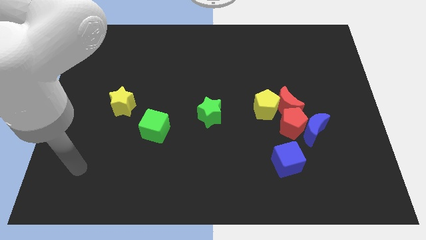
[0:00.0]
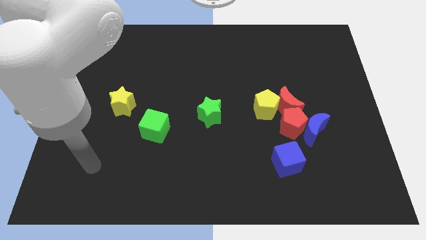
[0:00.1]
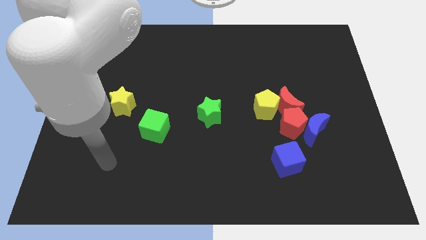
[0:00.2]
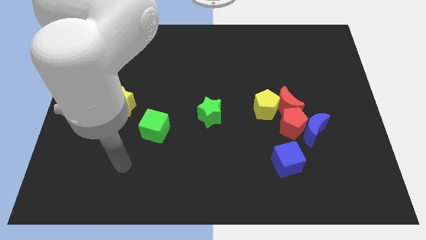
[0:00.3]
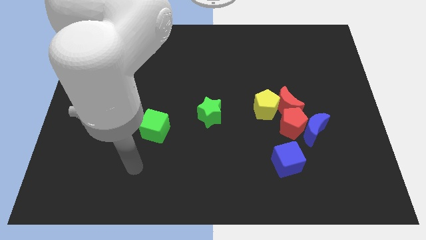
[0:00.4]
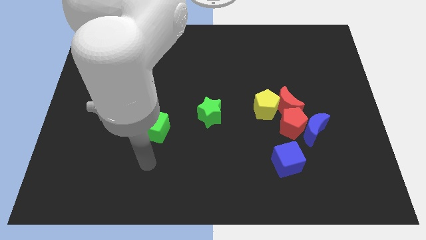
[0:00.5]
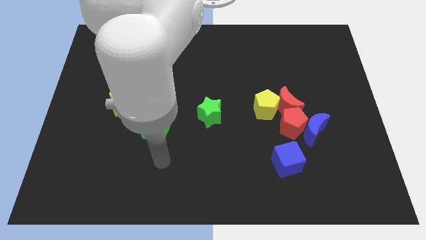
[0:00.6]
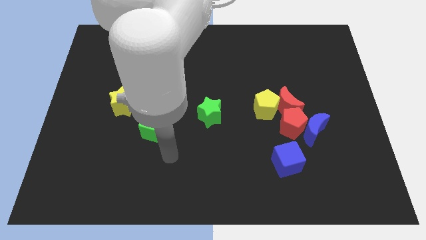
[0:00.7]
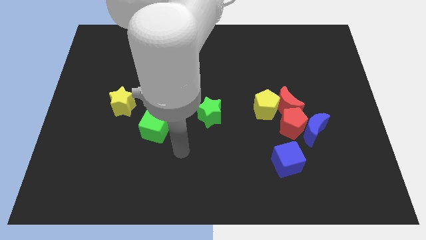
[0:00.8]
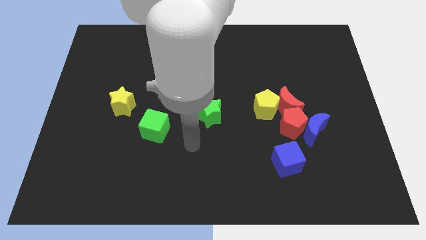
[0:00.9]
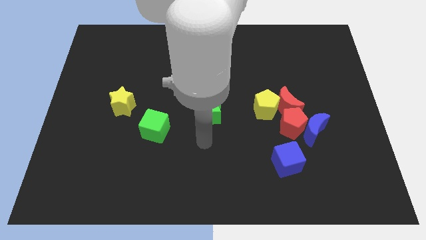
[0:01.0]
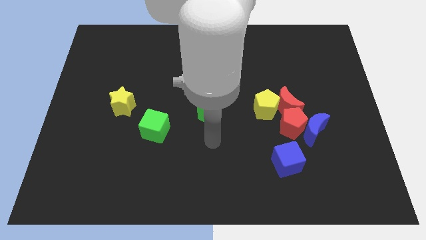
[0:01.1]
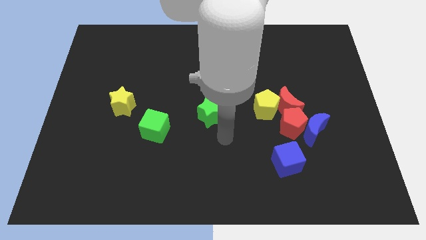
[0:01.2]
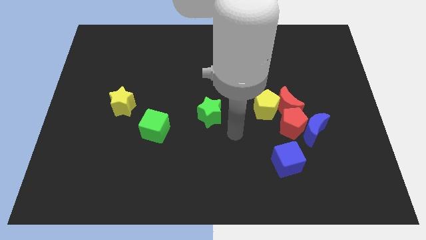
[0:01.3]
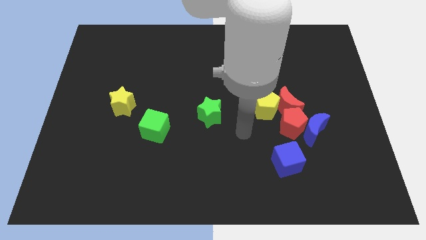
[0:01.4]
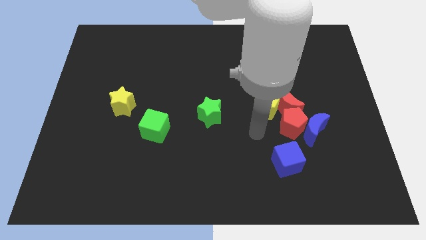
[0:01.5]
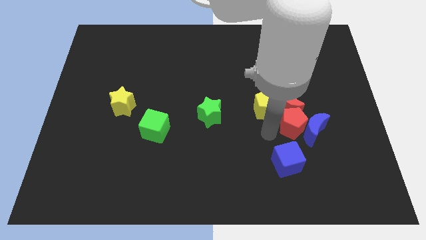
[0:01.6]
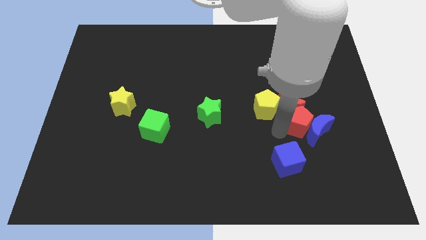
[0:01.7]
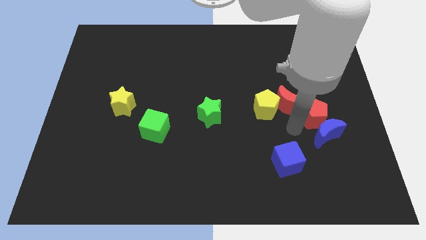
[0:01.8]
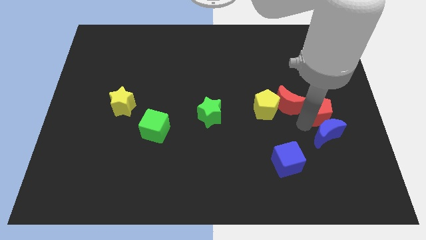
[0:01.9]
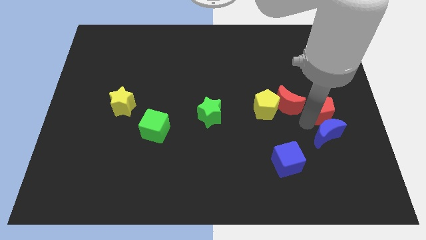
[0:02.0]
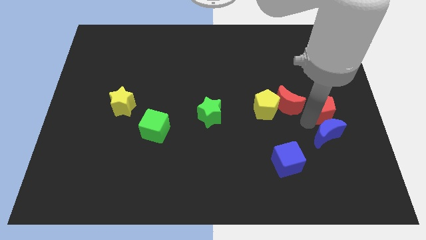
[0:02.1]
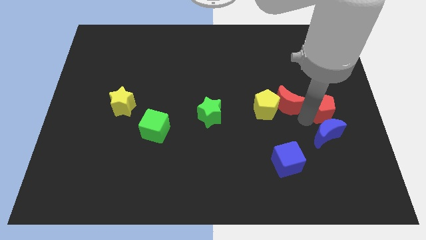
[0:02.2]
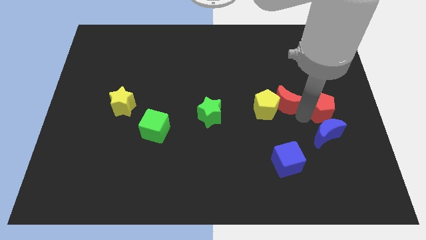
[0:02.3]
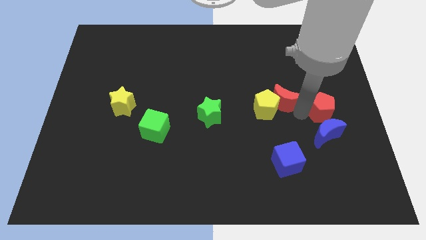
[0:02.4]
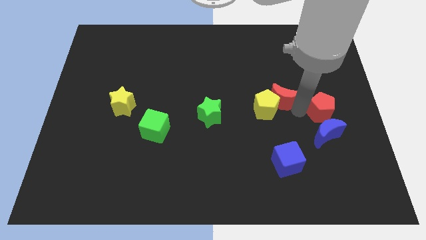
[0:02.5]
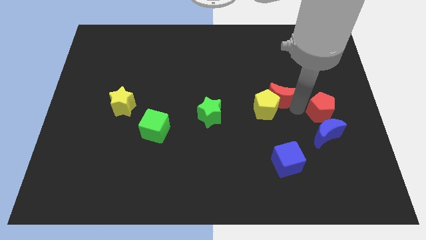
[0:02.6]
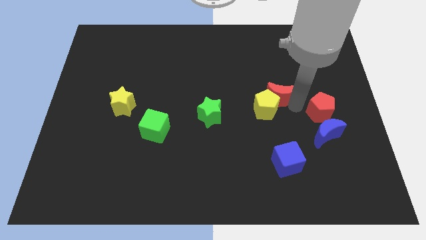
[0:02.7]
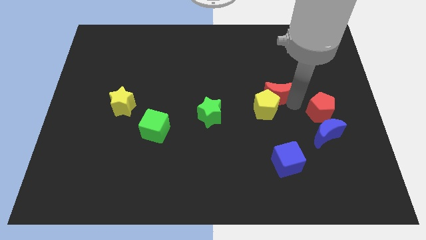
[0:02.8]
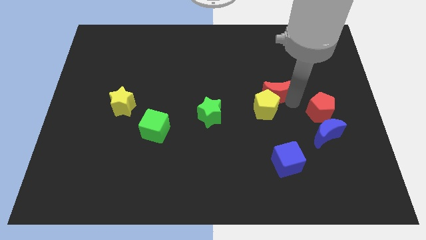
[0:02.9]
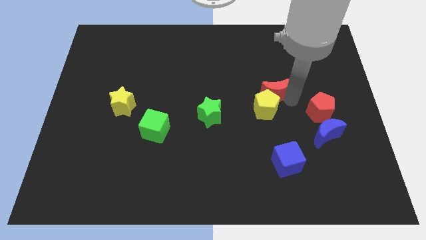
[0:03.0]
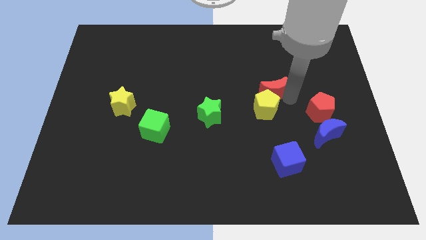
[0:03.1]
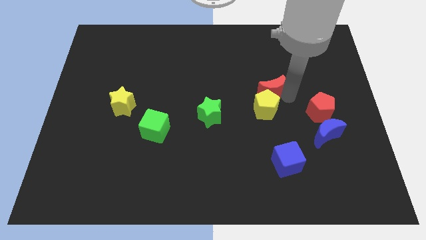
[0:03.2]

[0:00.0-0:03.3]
separate the red moon from the group of blocks

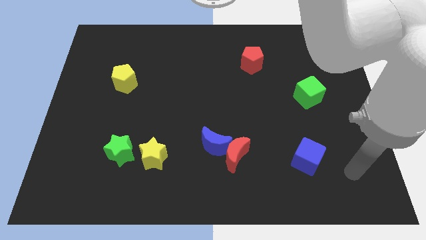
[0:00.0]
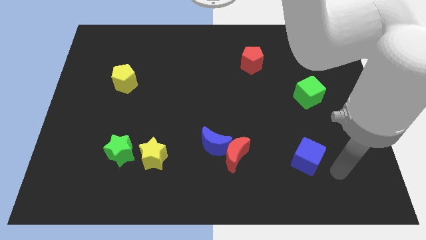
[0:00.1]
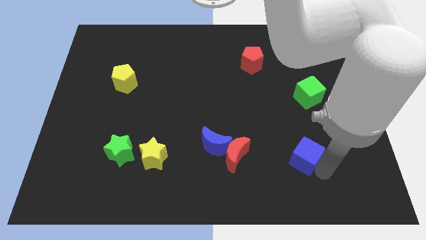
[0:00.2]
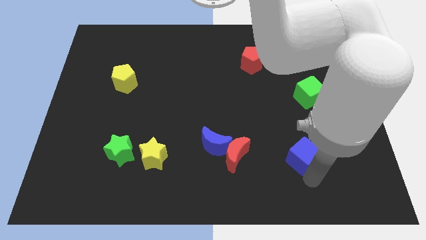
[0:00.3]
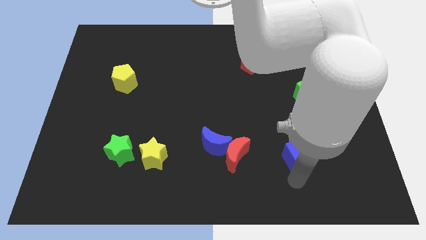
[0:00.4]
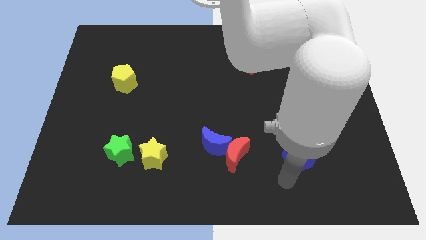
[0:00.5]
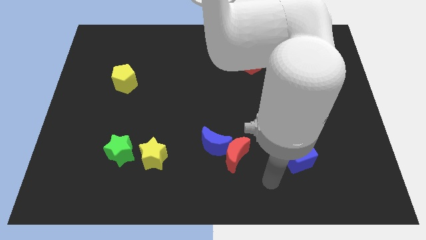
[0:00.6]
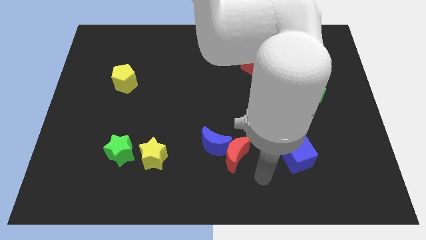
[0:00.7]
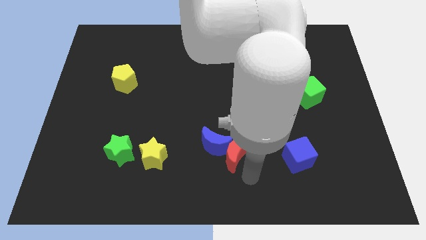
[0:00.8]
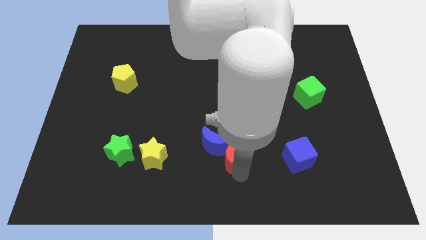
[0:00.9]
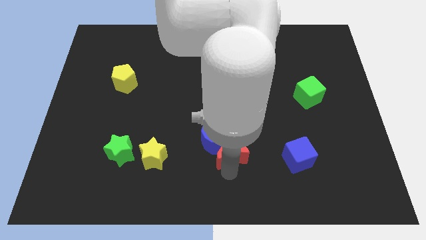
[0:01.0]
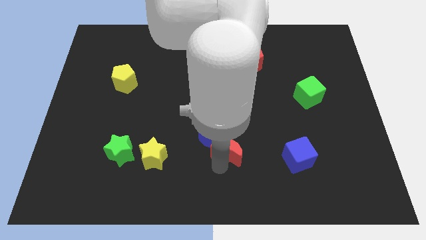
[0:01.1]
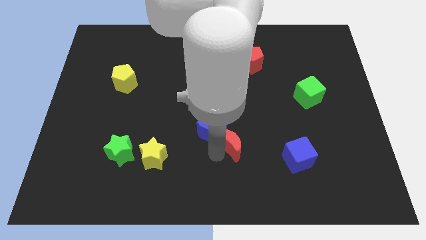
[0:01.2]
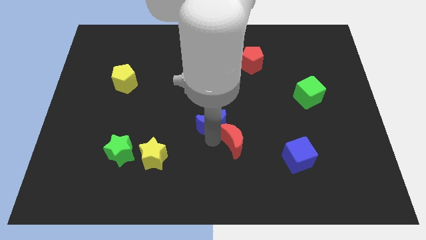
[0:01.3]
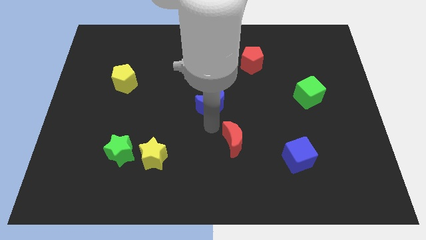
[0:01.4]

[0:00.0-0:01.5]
move the red moon away from the blue moon

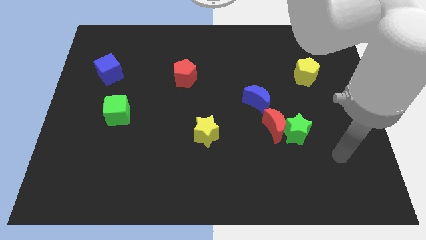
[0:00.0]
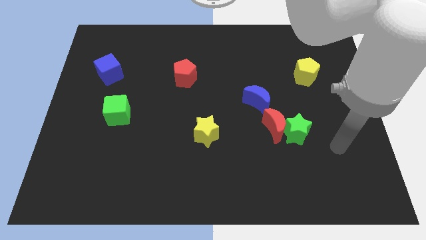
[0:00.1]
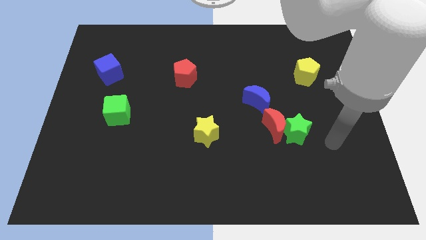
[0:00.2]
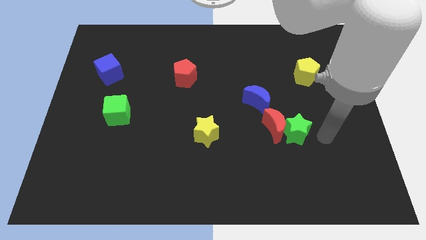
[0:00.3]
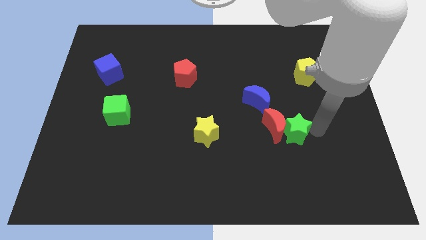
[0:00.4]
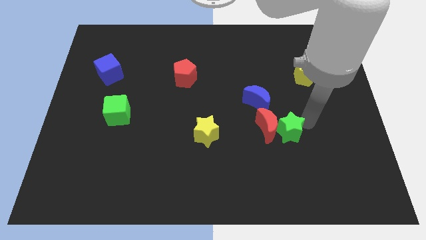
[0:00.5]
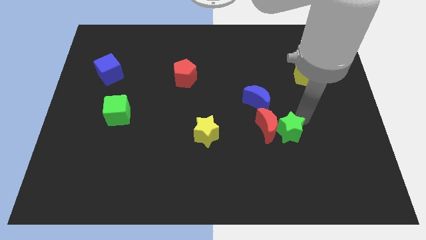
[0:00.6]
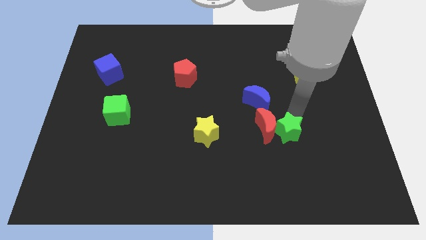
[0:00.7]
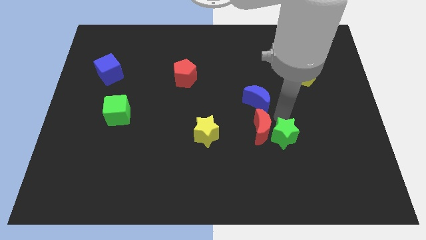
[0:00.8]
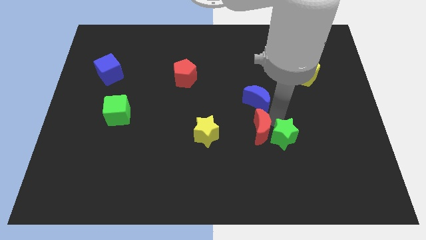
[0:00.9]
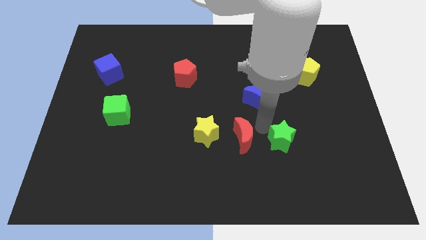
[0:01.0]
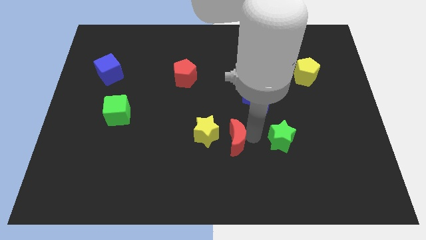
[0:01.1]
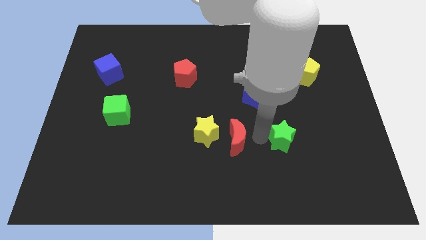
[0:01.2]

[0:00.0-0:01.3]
pull the green star apart from the red moon

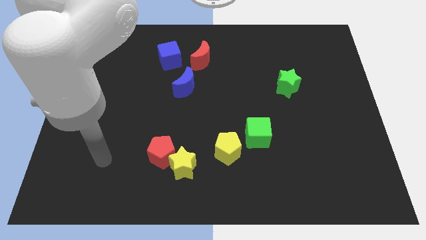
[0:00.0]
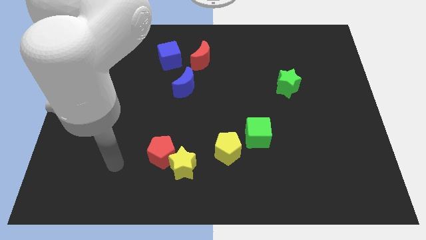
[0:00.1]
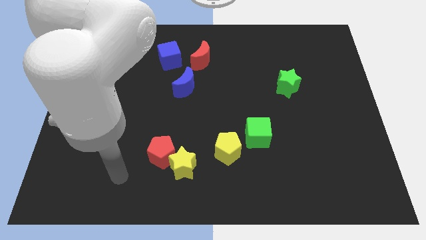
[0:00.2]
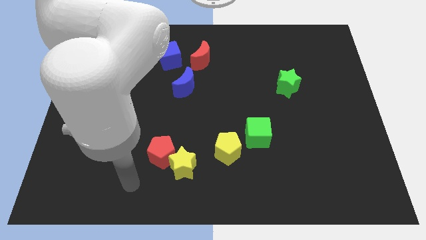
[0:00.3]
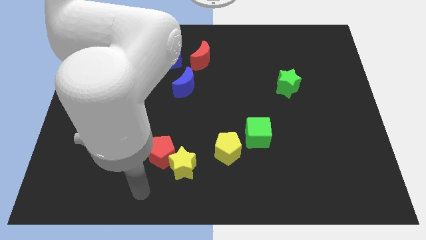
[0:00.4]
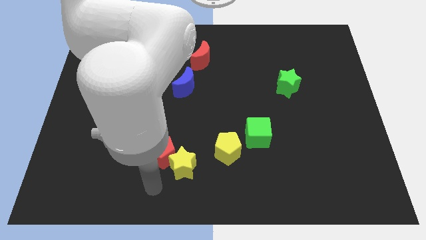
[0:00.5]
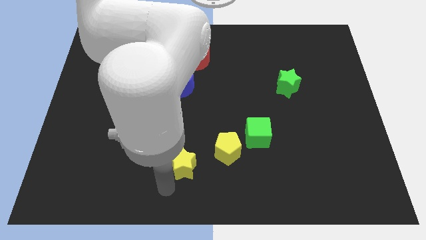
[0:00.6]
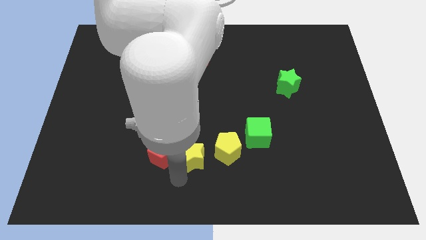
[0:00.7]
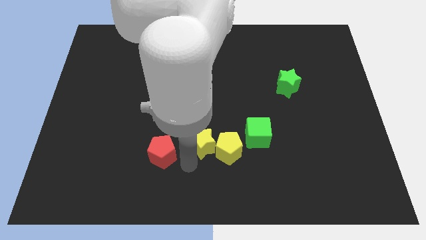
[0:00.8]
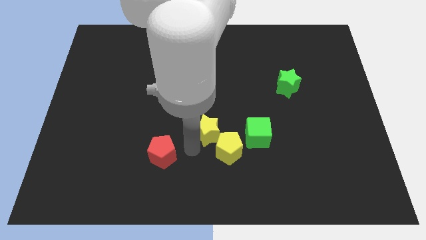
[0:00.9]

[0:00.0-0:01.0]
move the red pentagon away from the yellow star

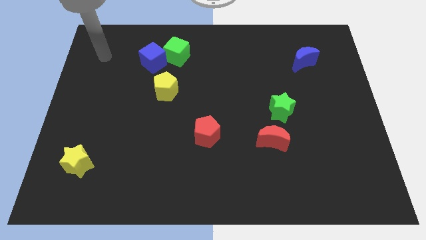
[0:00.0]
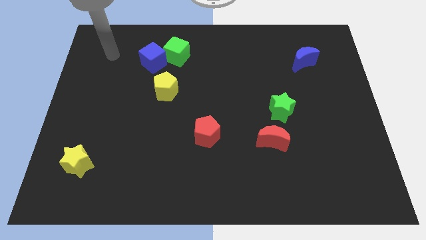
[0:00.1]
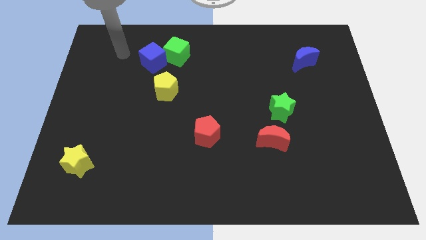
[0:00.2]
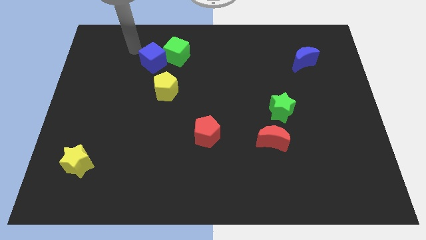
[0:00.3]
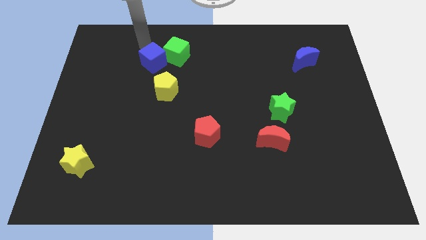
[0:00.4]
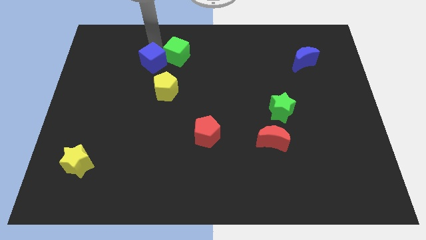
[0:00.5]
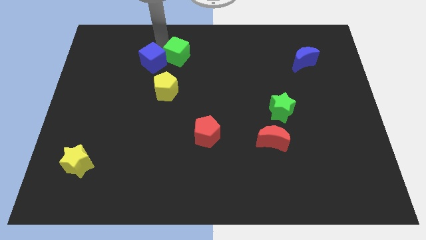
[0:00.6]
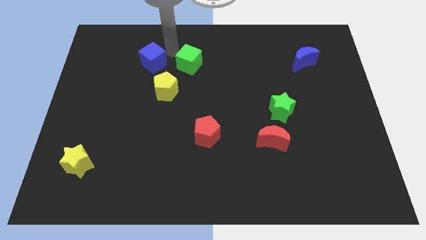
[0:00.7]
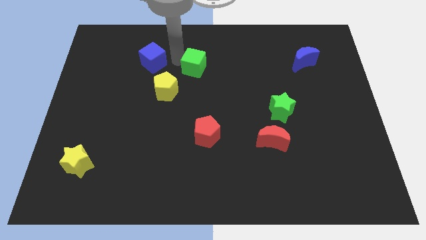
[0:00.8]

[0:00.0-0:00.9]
separate the blue cube from the green cube

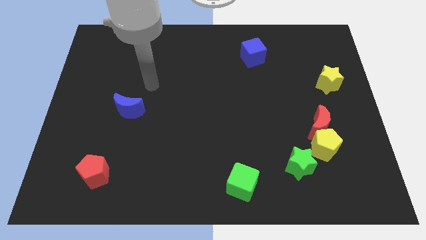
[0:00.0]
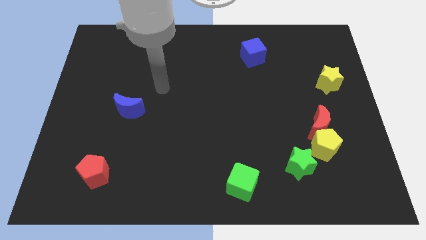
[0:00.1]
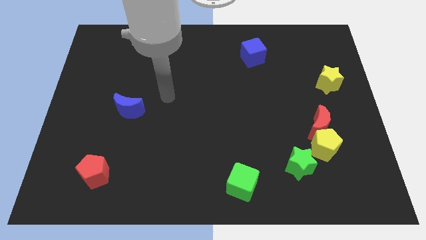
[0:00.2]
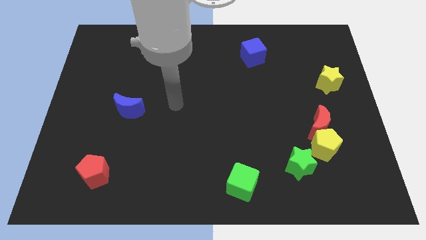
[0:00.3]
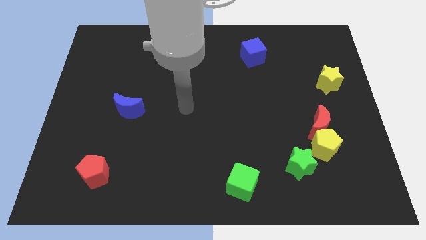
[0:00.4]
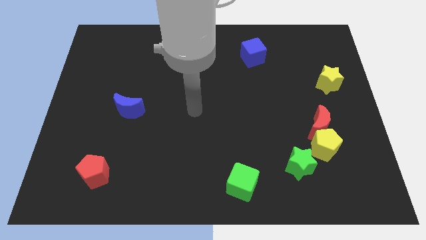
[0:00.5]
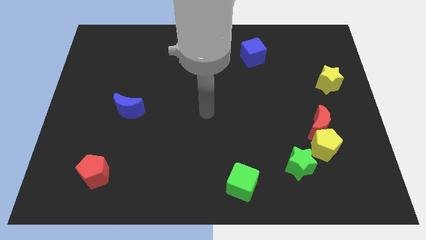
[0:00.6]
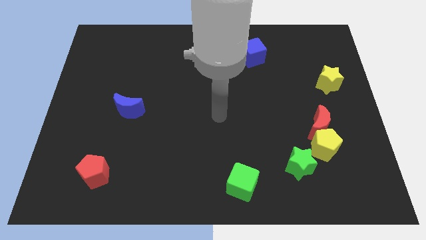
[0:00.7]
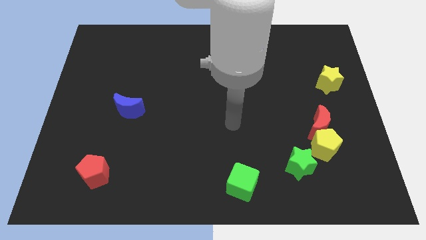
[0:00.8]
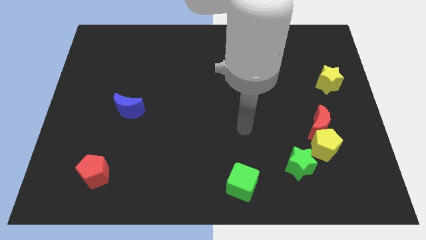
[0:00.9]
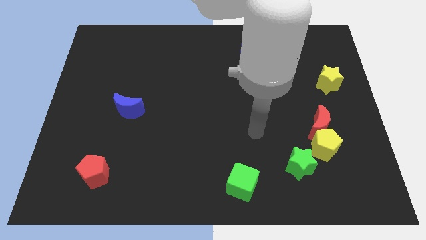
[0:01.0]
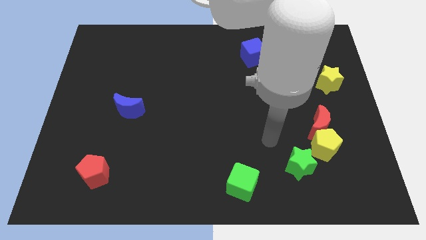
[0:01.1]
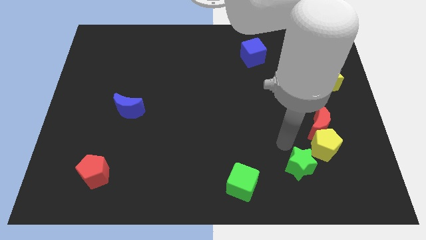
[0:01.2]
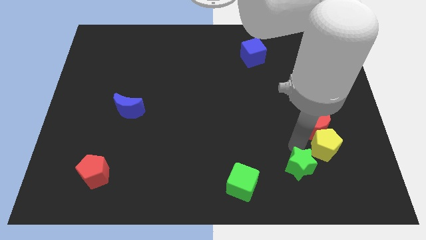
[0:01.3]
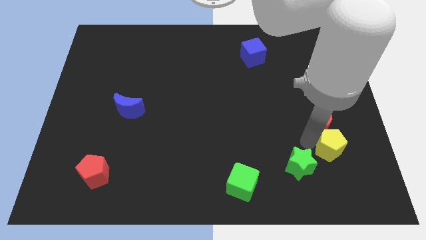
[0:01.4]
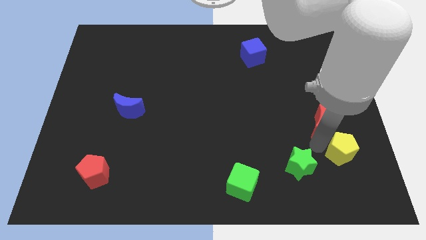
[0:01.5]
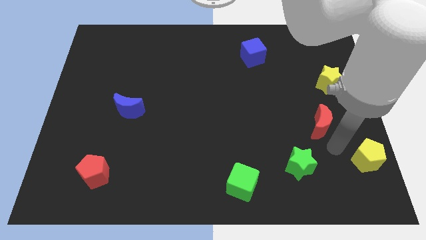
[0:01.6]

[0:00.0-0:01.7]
pull the red moon apart from the yellow pentagon
